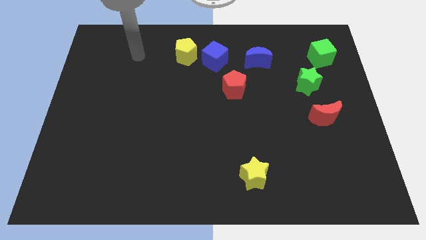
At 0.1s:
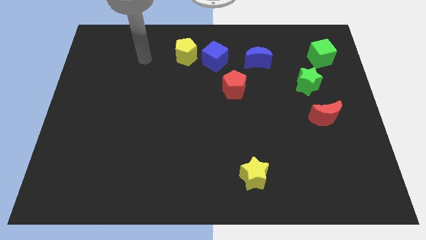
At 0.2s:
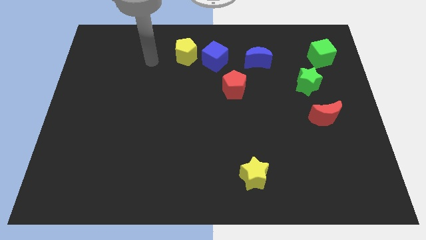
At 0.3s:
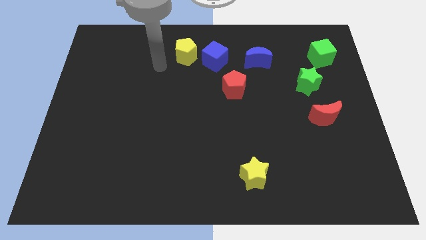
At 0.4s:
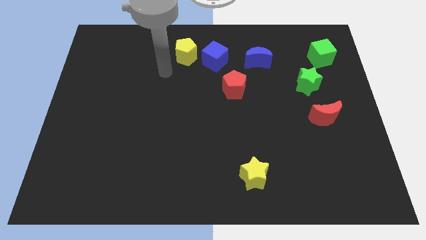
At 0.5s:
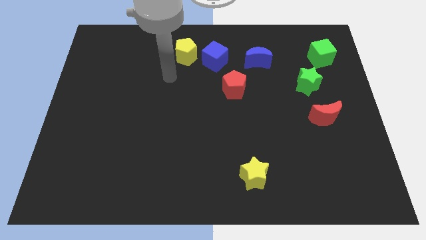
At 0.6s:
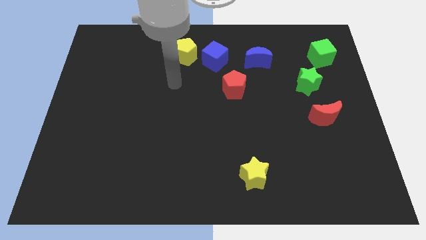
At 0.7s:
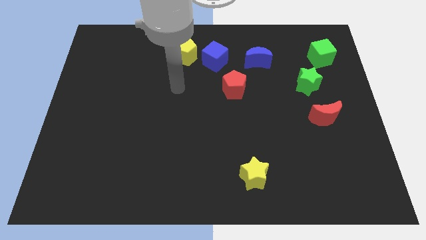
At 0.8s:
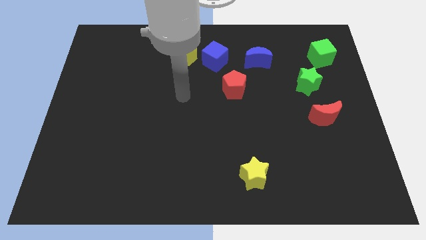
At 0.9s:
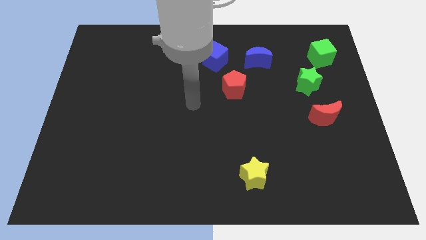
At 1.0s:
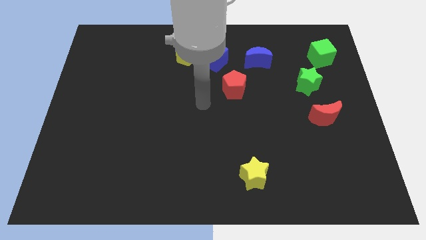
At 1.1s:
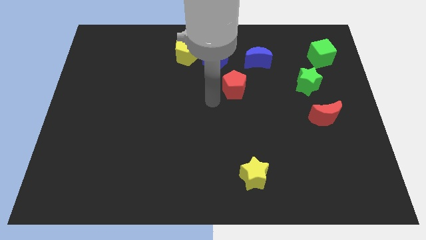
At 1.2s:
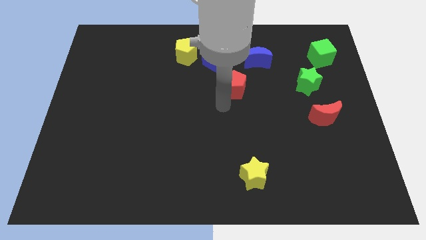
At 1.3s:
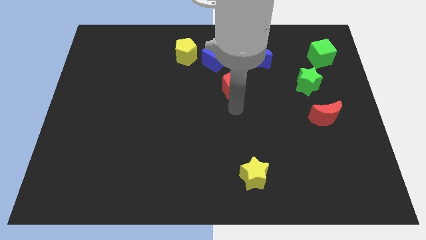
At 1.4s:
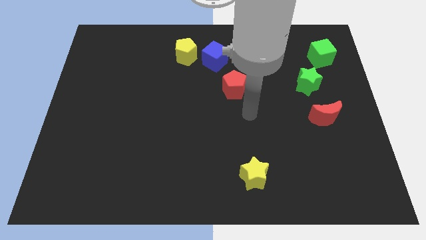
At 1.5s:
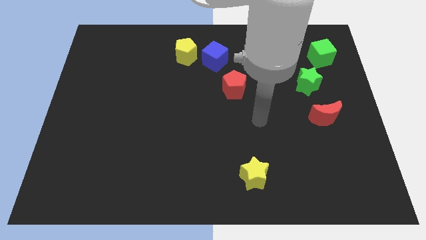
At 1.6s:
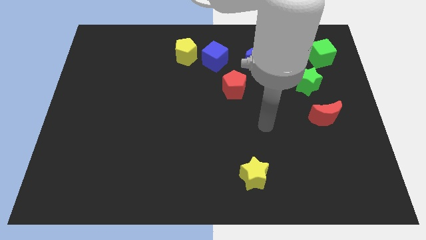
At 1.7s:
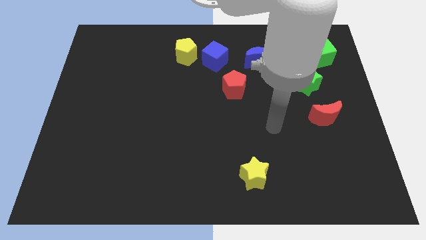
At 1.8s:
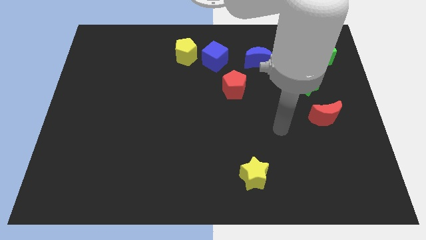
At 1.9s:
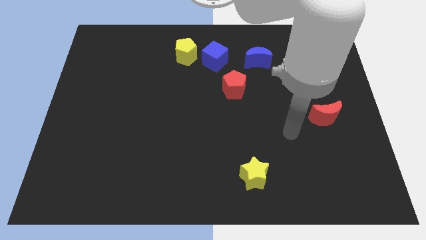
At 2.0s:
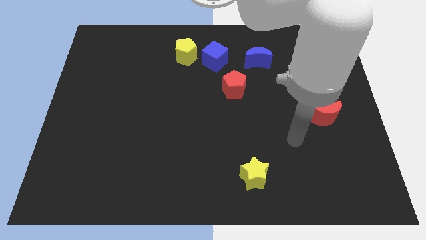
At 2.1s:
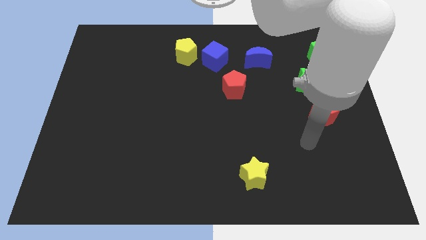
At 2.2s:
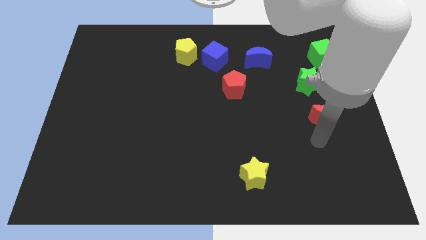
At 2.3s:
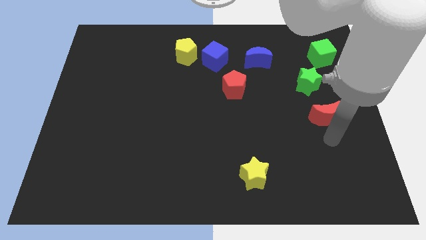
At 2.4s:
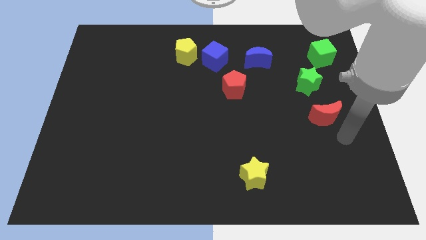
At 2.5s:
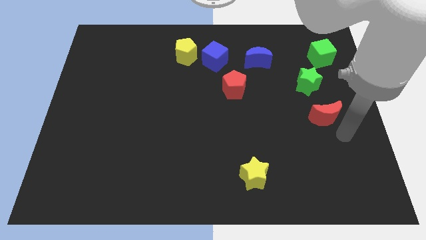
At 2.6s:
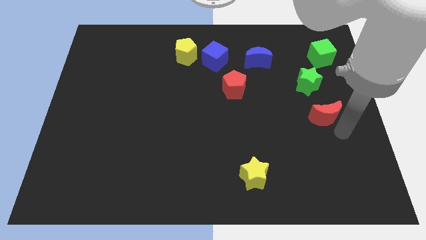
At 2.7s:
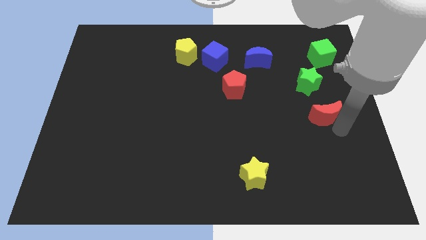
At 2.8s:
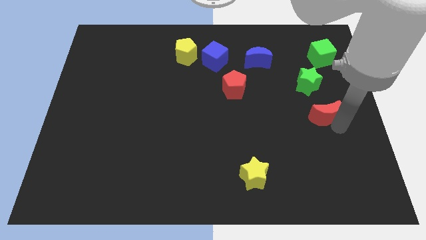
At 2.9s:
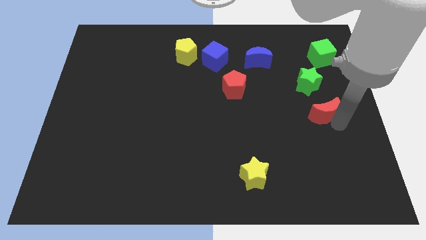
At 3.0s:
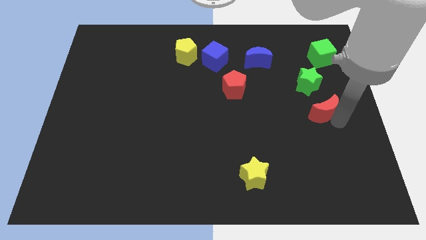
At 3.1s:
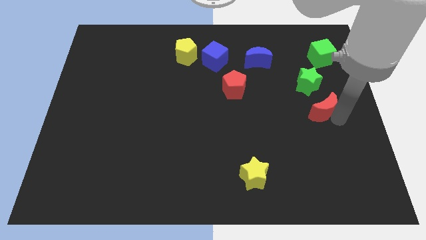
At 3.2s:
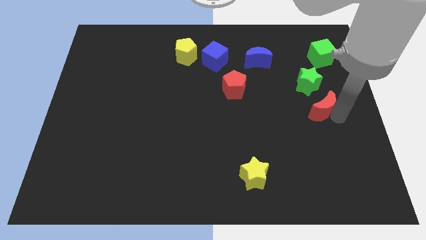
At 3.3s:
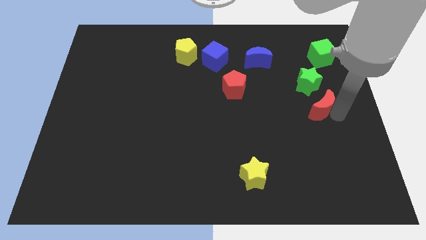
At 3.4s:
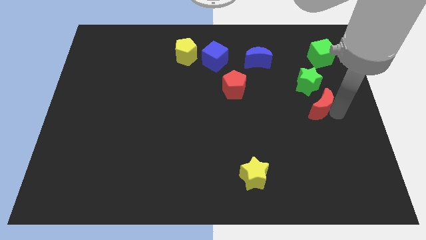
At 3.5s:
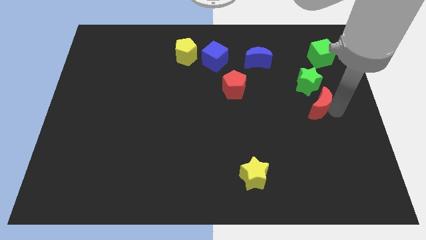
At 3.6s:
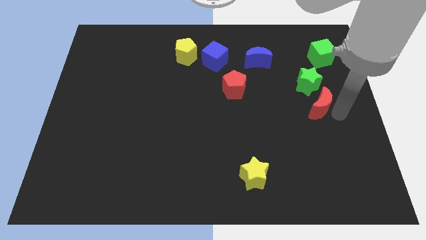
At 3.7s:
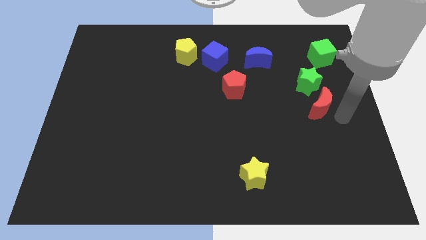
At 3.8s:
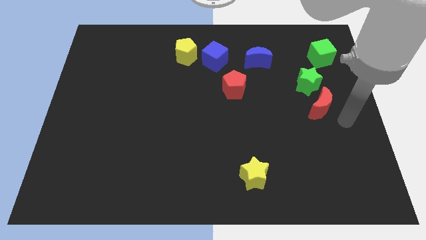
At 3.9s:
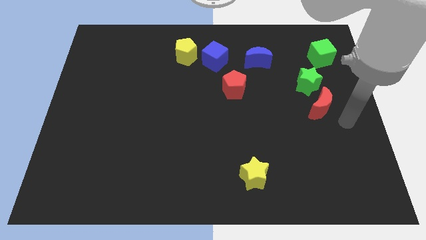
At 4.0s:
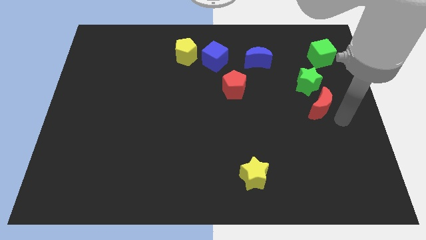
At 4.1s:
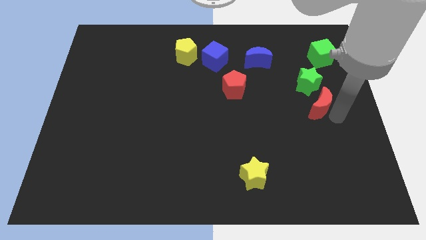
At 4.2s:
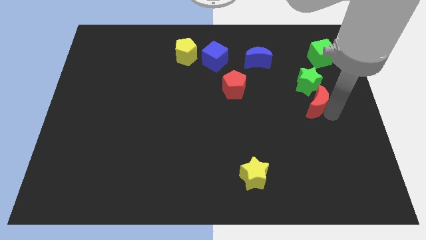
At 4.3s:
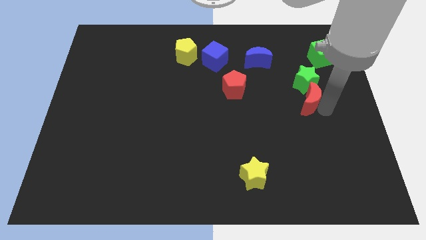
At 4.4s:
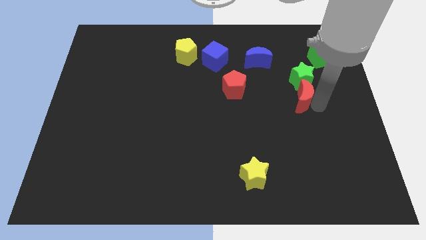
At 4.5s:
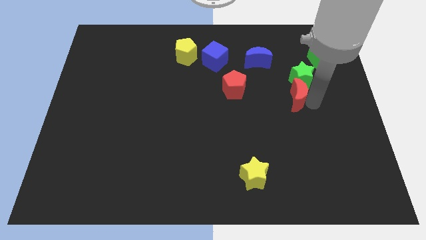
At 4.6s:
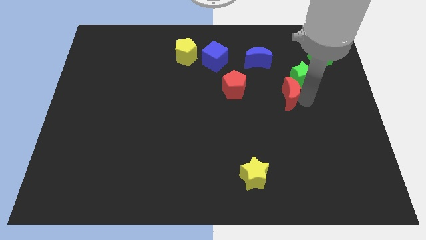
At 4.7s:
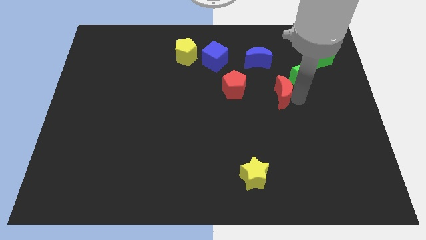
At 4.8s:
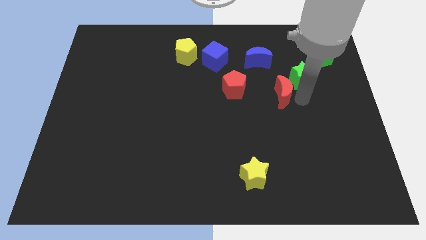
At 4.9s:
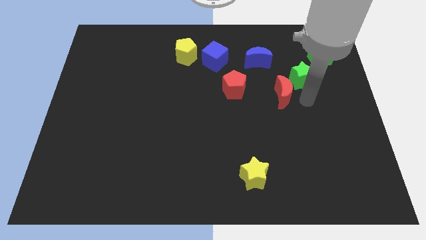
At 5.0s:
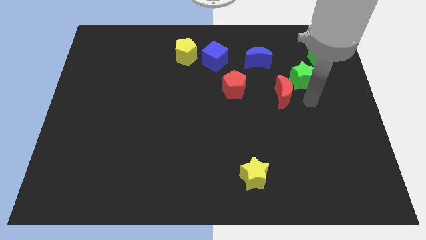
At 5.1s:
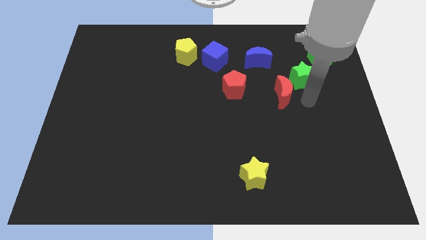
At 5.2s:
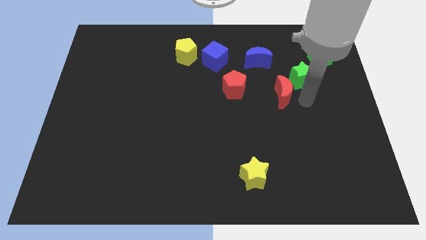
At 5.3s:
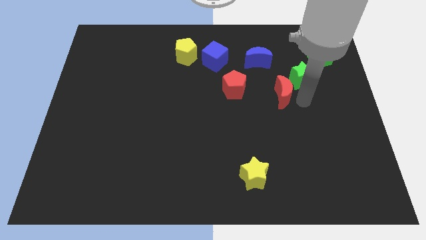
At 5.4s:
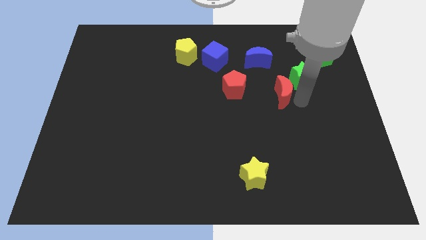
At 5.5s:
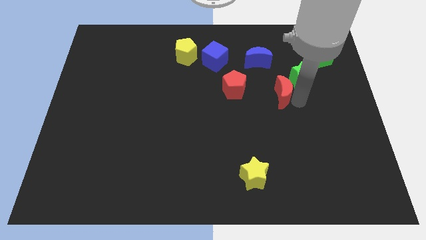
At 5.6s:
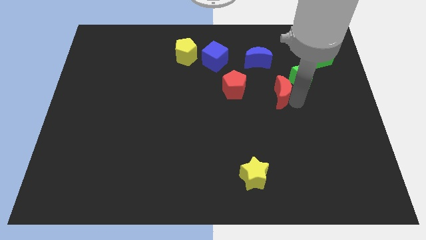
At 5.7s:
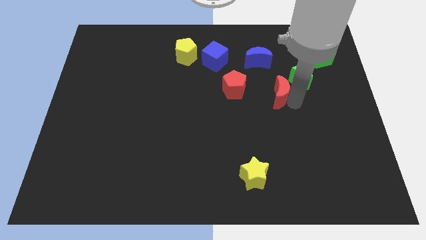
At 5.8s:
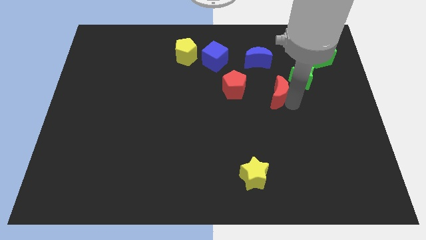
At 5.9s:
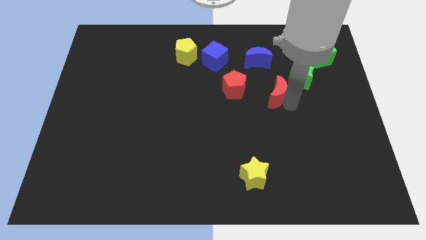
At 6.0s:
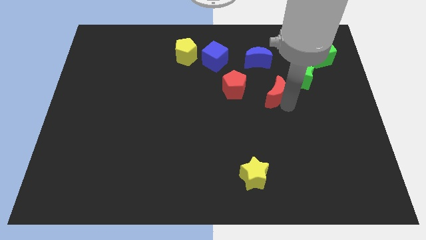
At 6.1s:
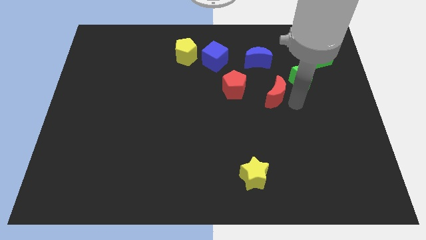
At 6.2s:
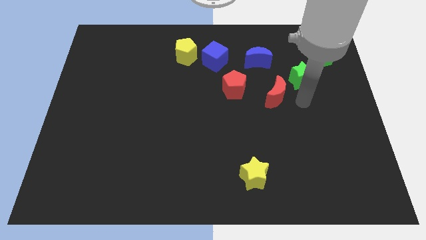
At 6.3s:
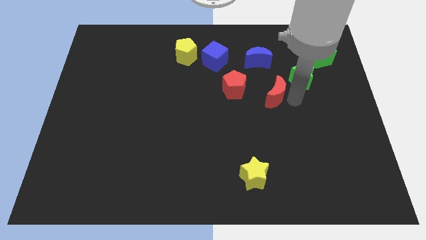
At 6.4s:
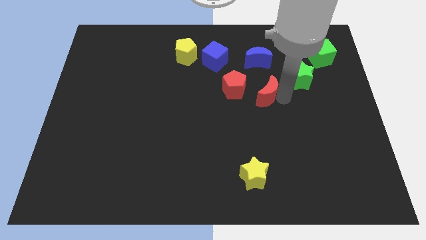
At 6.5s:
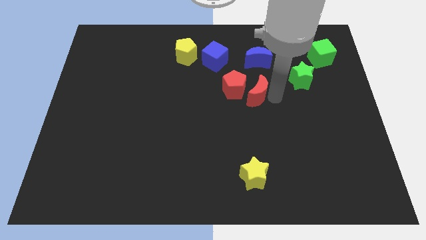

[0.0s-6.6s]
move the red moon towards the red pentagon

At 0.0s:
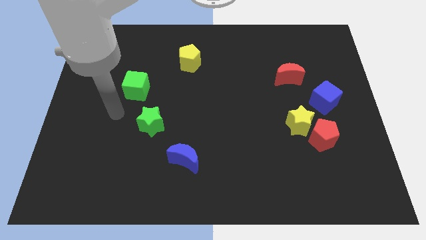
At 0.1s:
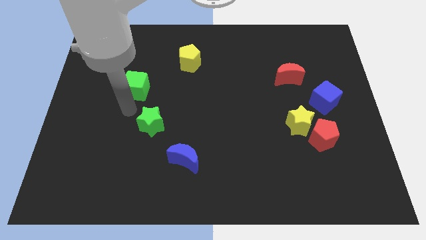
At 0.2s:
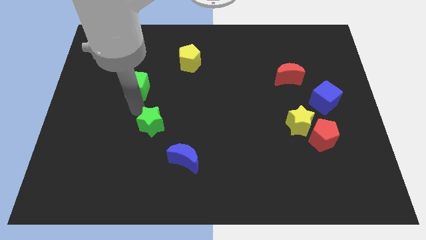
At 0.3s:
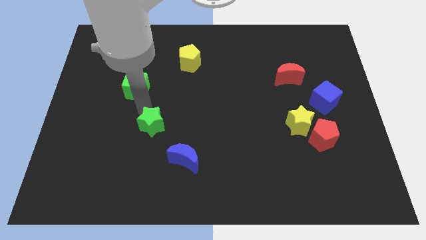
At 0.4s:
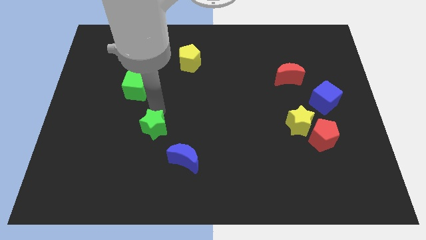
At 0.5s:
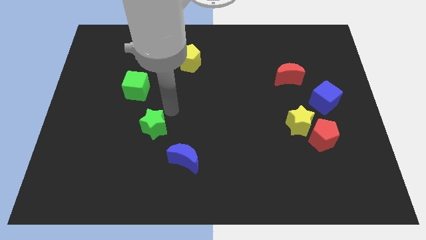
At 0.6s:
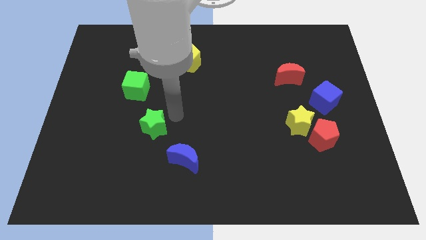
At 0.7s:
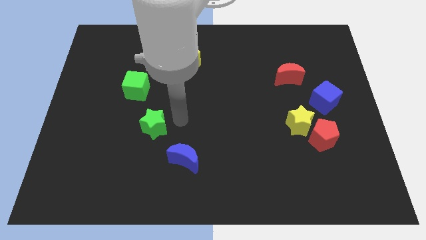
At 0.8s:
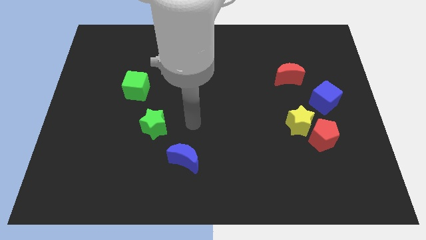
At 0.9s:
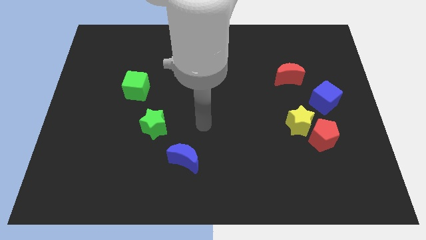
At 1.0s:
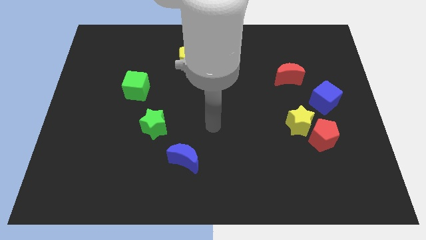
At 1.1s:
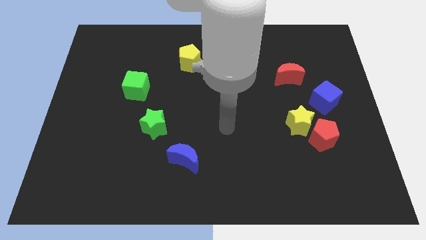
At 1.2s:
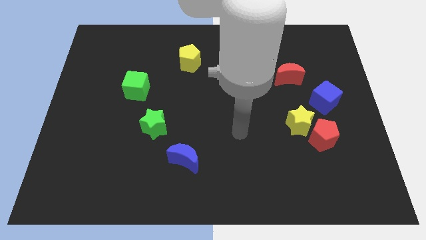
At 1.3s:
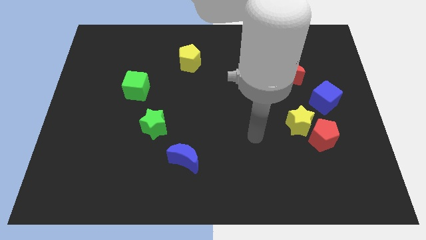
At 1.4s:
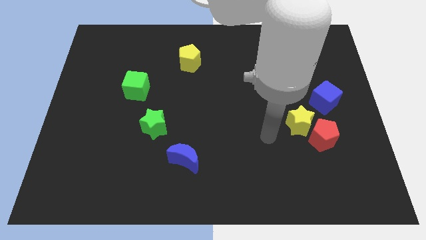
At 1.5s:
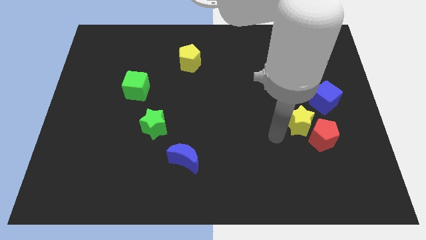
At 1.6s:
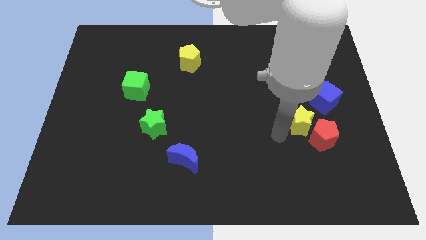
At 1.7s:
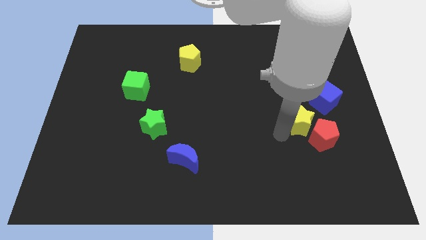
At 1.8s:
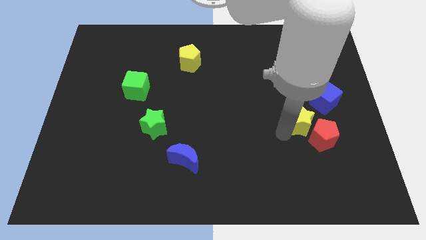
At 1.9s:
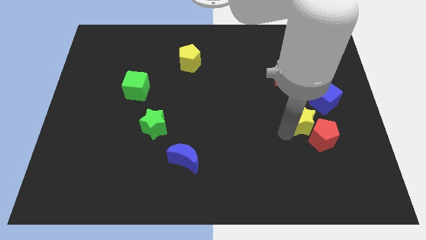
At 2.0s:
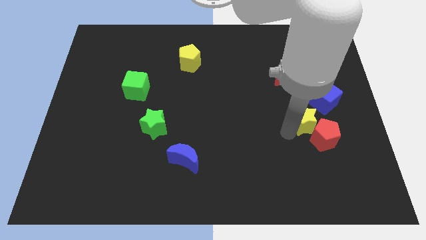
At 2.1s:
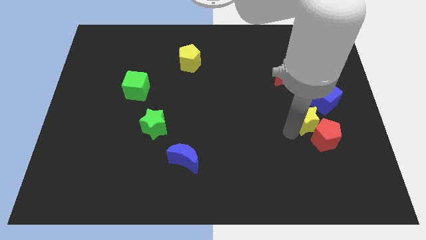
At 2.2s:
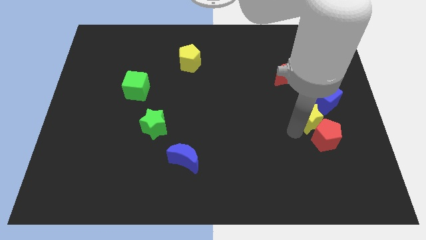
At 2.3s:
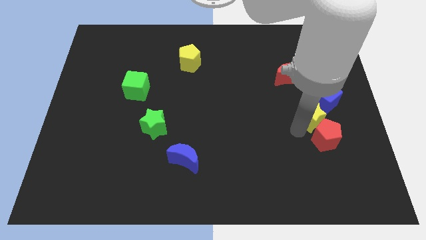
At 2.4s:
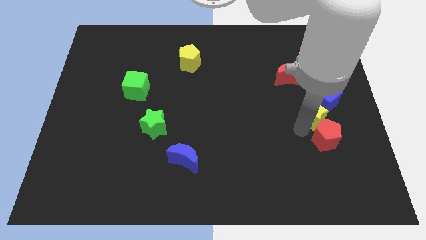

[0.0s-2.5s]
slide the yellow star towards the blue cube
